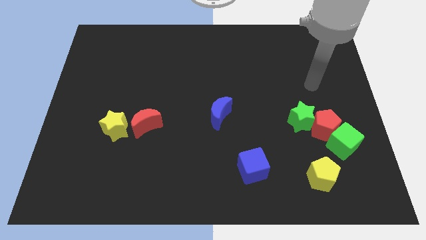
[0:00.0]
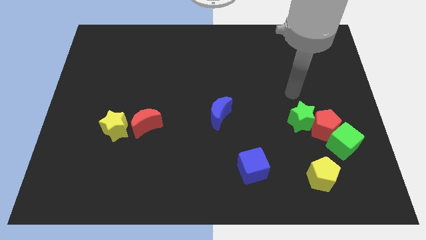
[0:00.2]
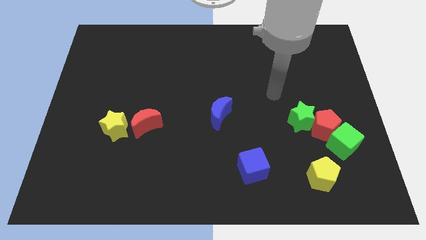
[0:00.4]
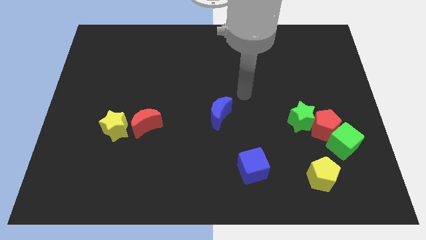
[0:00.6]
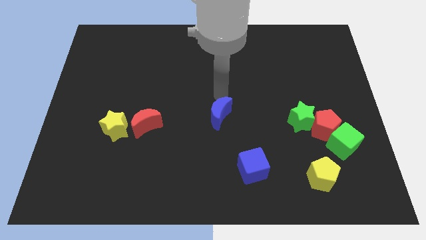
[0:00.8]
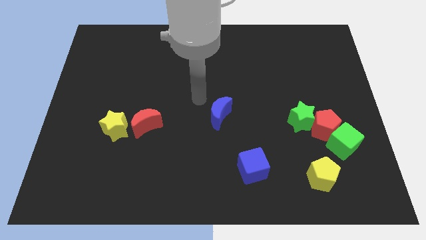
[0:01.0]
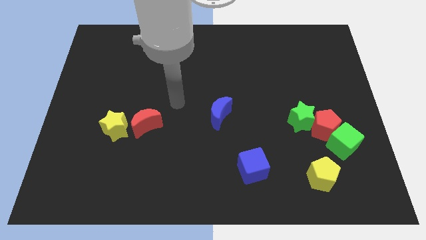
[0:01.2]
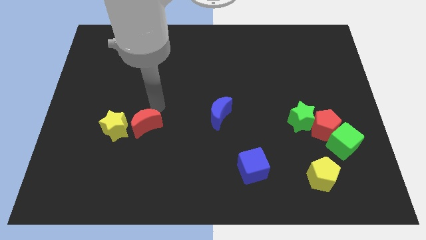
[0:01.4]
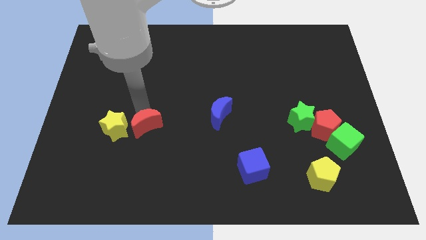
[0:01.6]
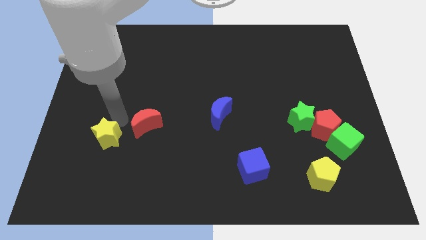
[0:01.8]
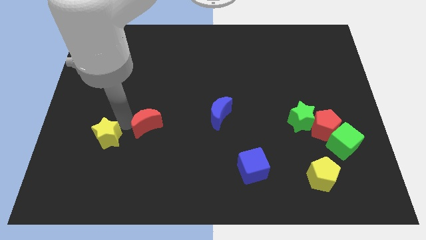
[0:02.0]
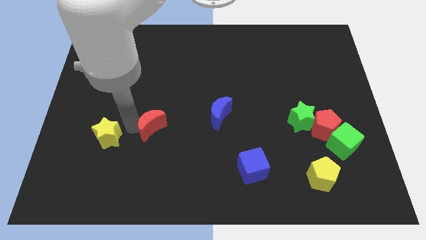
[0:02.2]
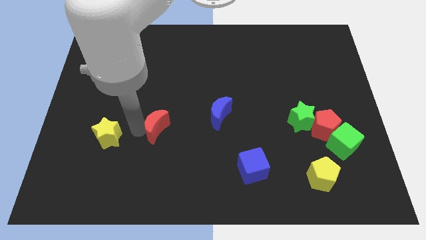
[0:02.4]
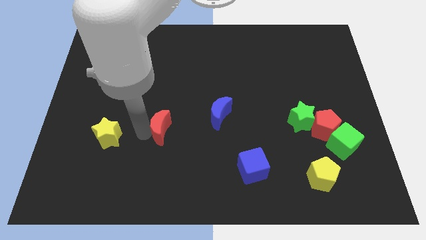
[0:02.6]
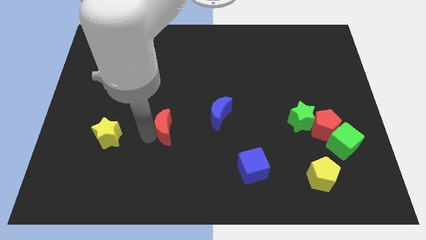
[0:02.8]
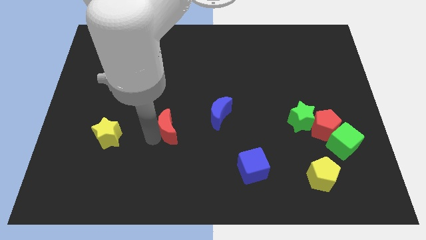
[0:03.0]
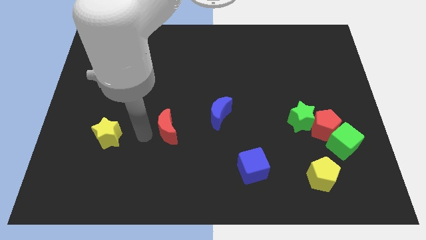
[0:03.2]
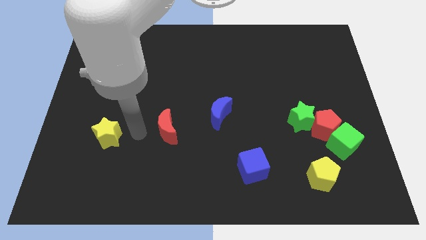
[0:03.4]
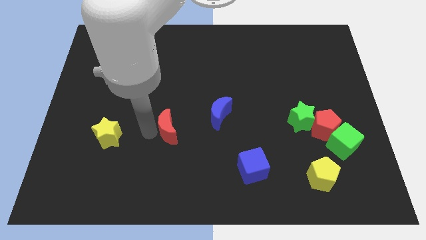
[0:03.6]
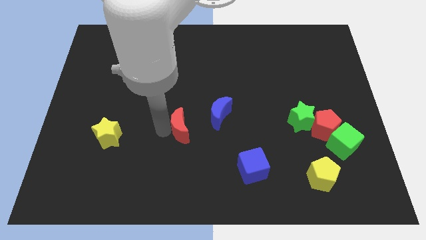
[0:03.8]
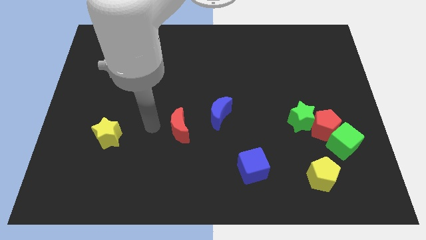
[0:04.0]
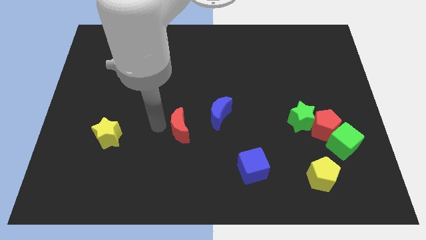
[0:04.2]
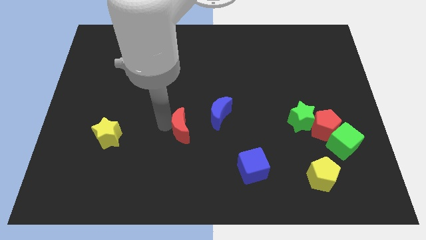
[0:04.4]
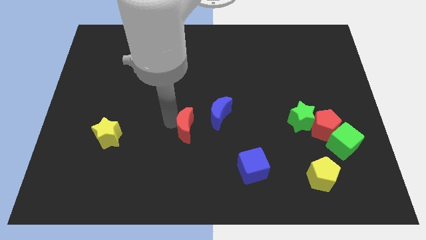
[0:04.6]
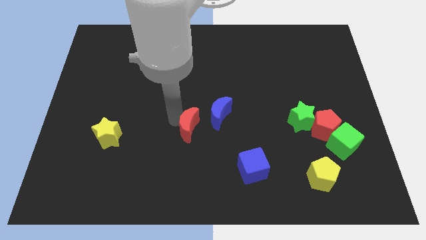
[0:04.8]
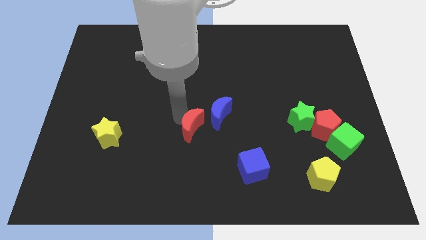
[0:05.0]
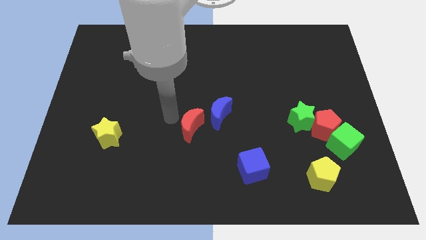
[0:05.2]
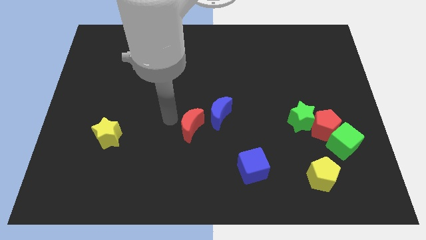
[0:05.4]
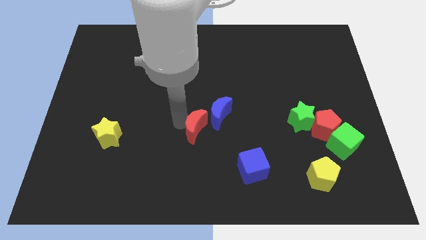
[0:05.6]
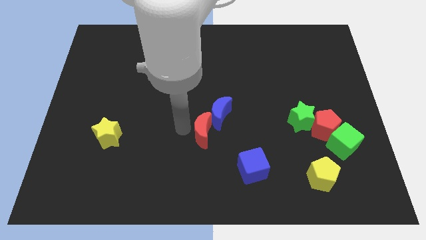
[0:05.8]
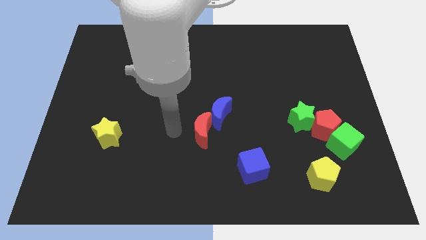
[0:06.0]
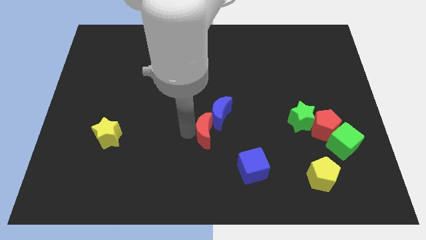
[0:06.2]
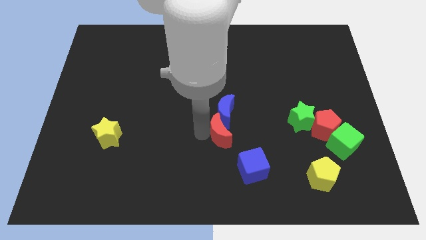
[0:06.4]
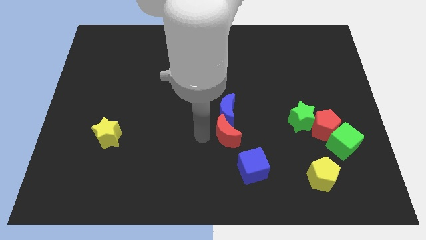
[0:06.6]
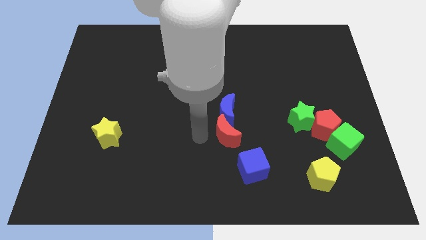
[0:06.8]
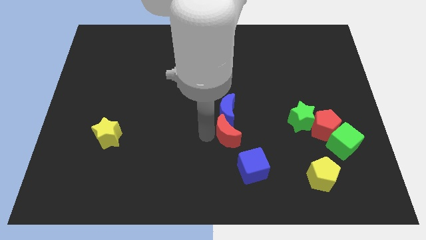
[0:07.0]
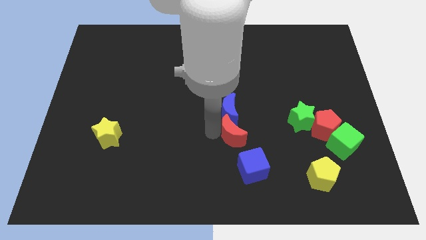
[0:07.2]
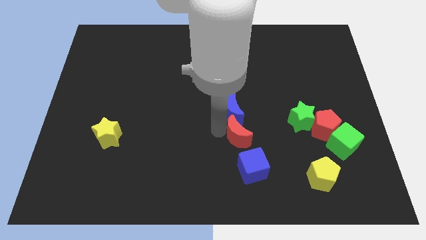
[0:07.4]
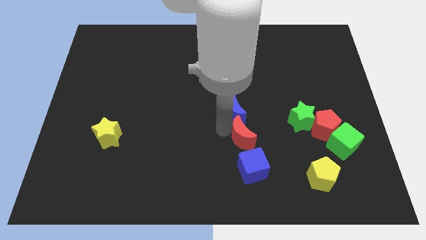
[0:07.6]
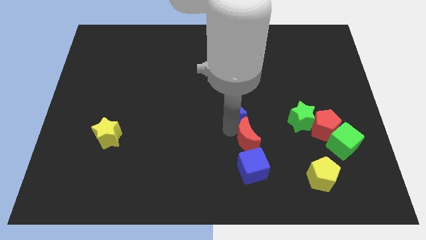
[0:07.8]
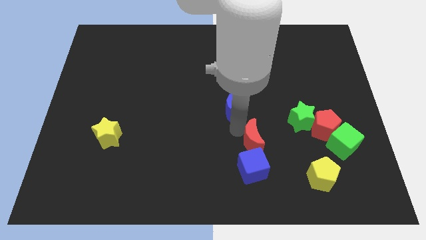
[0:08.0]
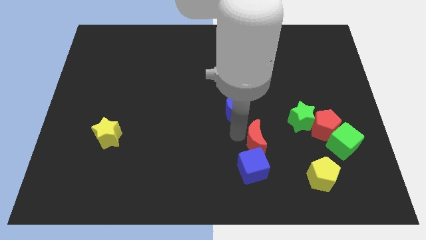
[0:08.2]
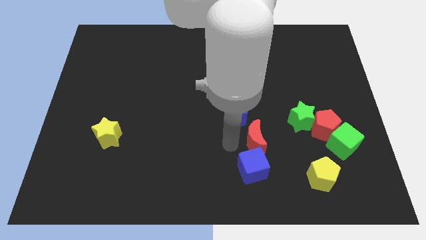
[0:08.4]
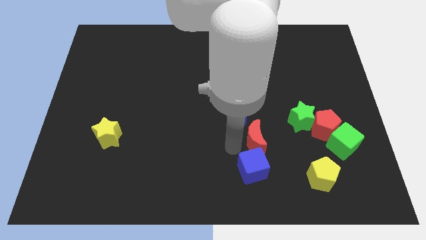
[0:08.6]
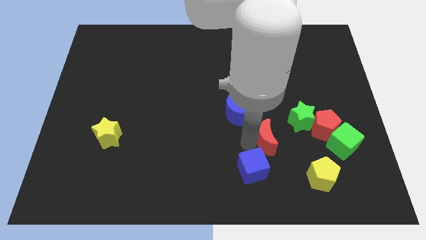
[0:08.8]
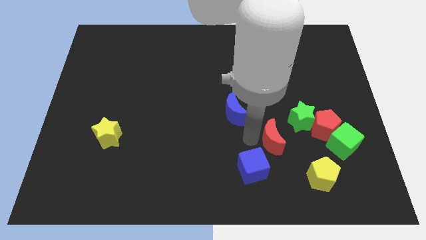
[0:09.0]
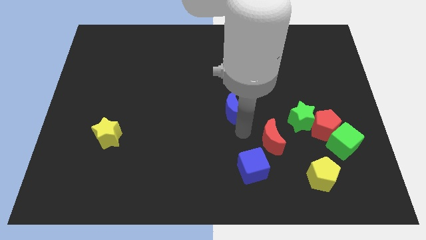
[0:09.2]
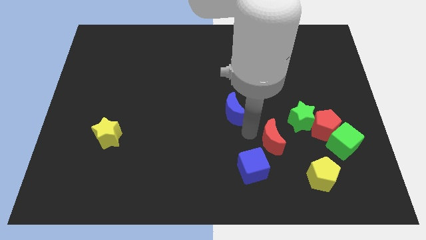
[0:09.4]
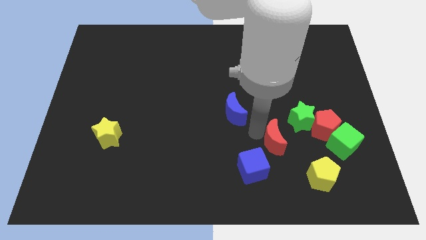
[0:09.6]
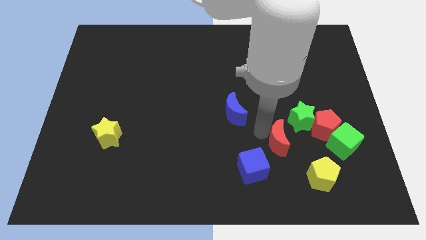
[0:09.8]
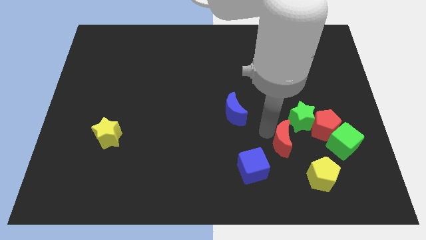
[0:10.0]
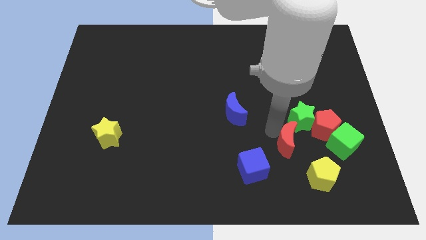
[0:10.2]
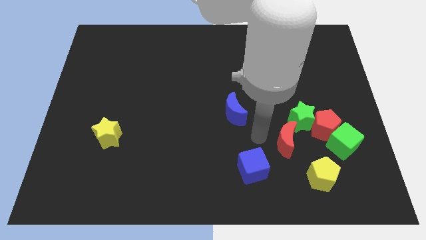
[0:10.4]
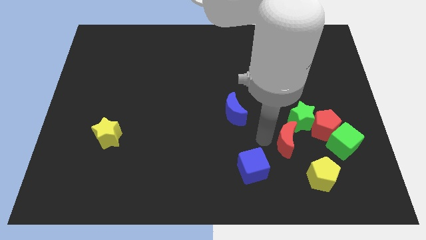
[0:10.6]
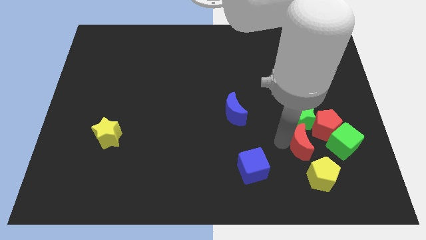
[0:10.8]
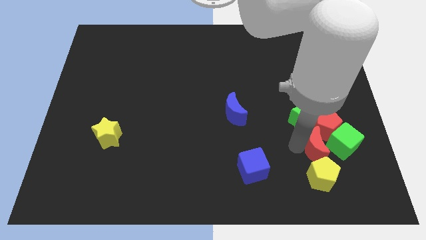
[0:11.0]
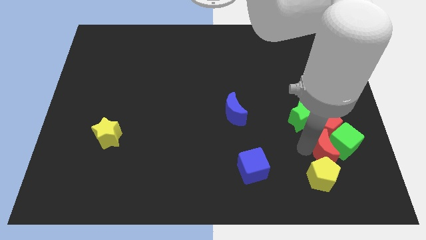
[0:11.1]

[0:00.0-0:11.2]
push the red moon to the green cube

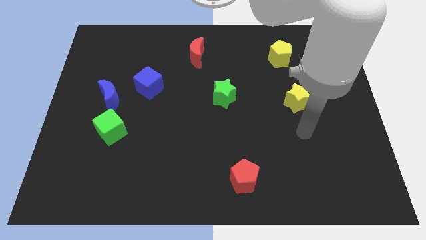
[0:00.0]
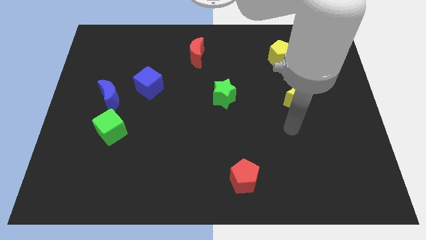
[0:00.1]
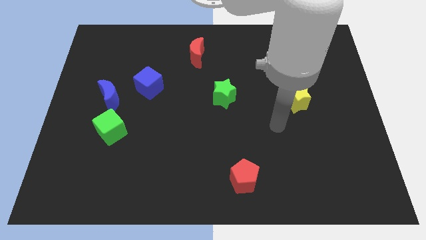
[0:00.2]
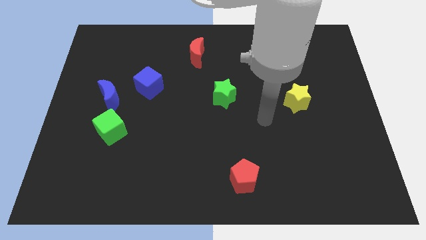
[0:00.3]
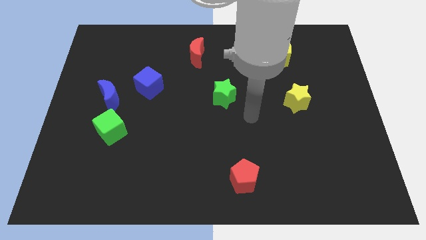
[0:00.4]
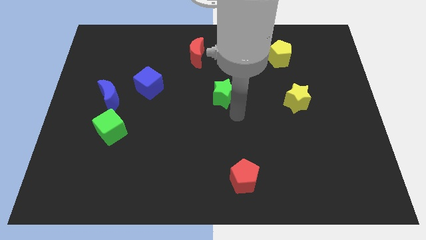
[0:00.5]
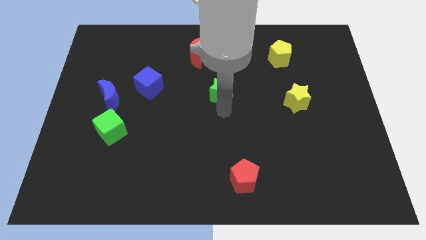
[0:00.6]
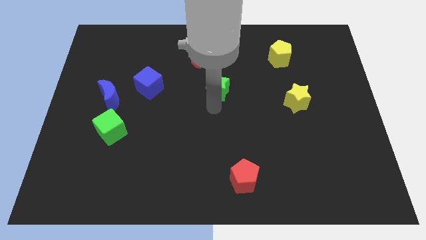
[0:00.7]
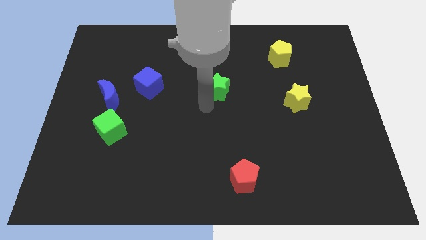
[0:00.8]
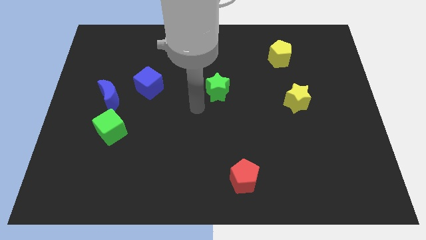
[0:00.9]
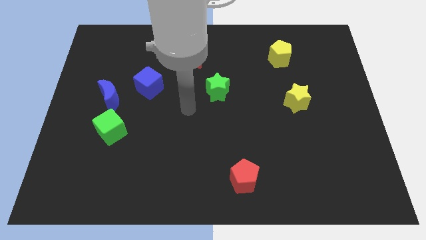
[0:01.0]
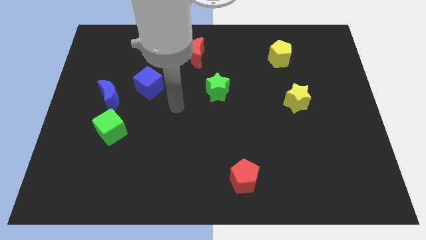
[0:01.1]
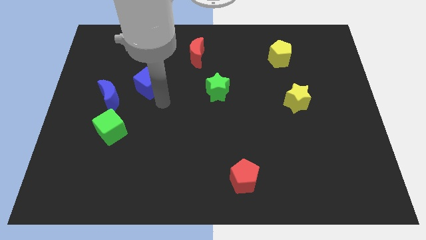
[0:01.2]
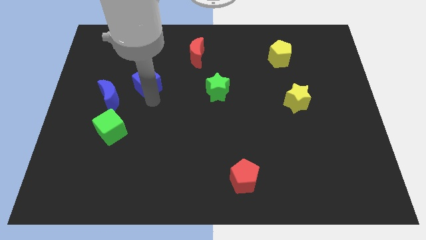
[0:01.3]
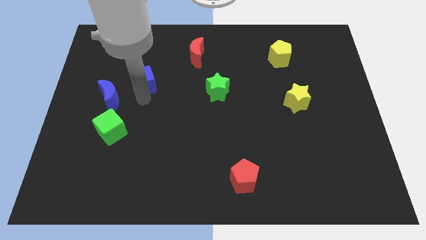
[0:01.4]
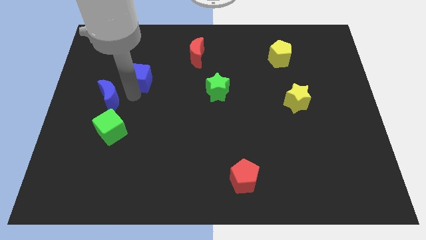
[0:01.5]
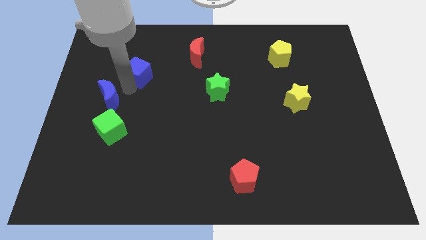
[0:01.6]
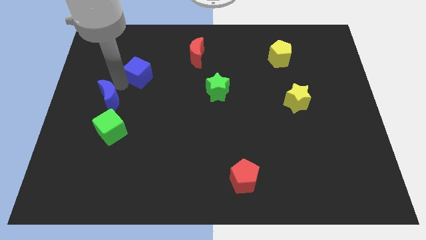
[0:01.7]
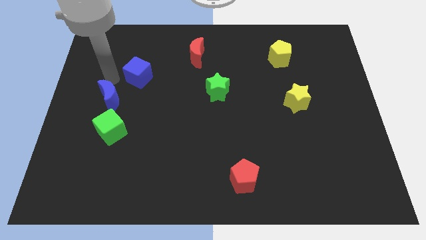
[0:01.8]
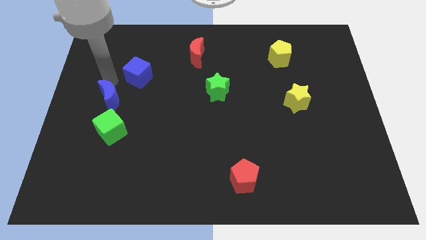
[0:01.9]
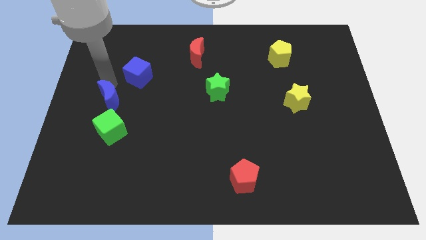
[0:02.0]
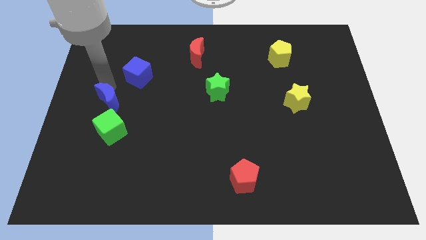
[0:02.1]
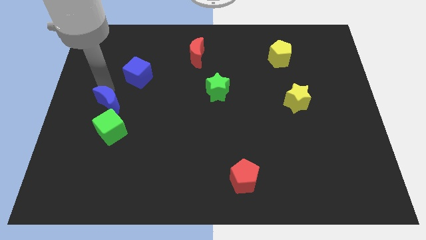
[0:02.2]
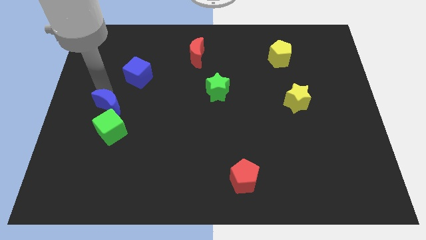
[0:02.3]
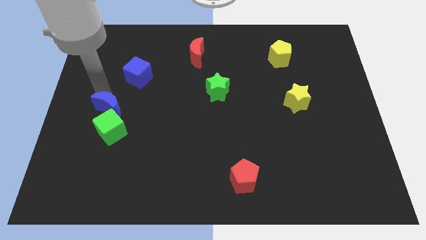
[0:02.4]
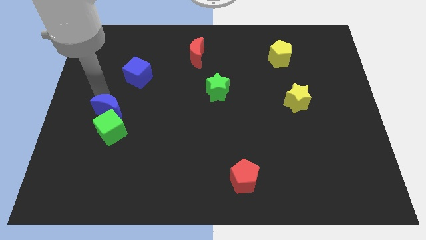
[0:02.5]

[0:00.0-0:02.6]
move the blue moon to the green cube
